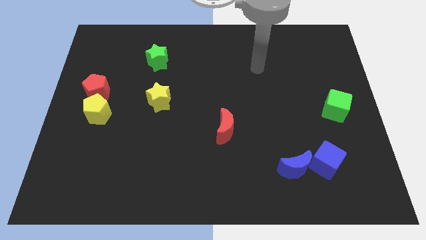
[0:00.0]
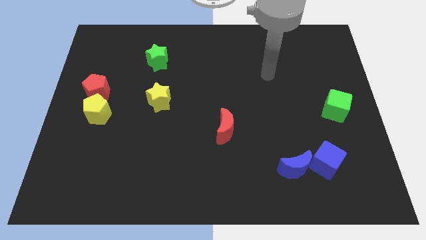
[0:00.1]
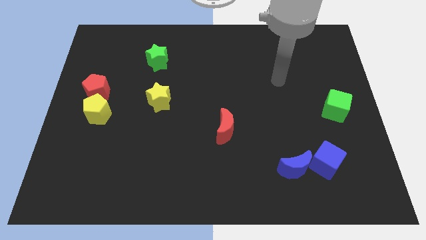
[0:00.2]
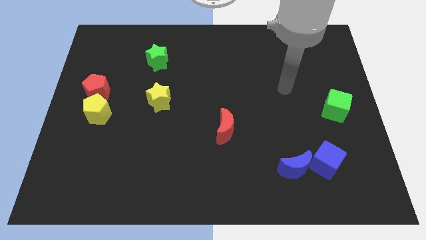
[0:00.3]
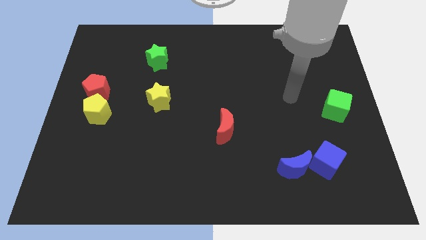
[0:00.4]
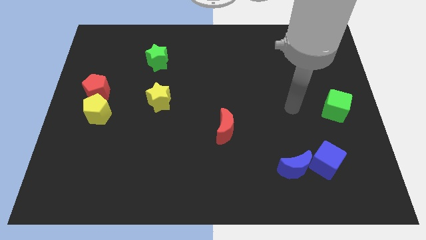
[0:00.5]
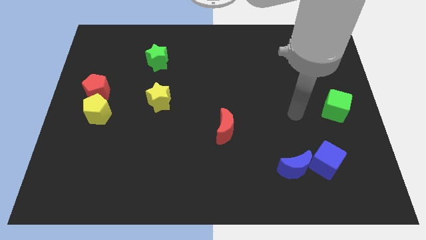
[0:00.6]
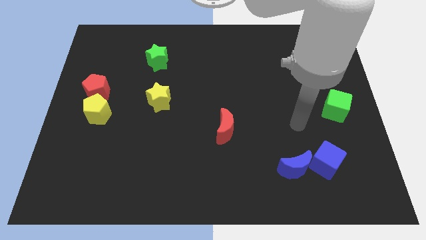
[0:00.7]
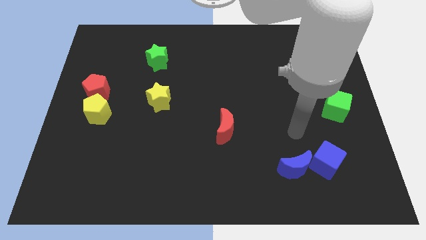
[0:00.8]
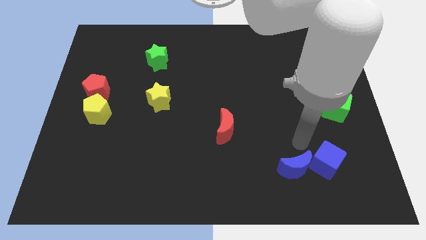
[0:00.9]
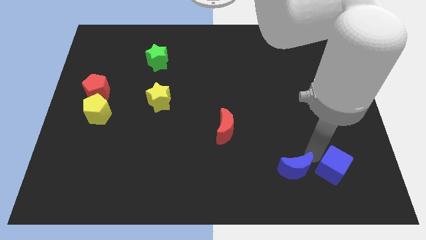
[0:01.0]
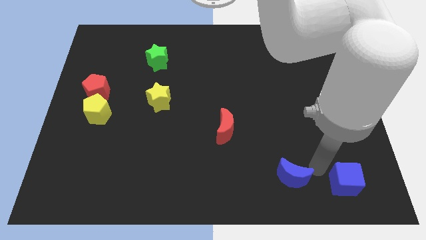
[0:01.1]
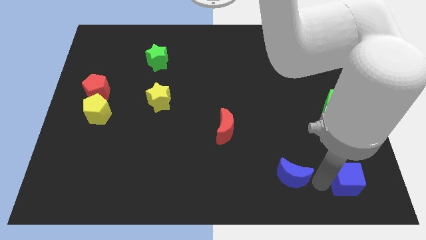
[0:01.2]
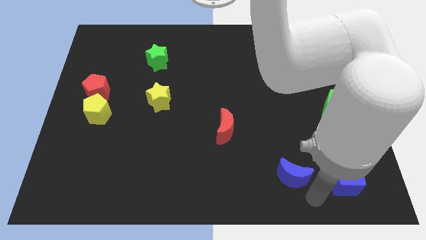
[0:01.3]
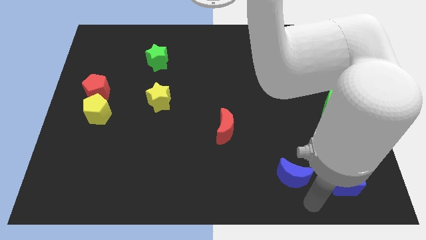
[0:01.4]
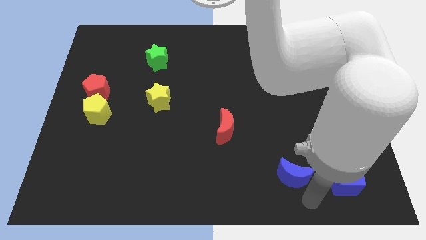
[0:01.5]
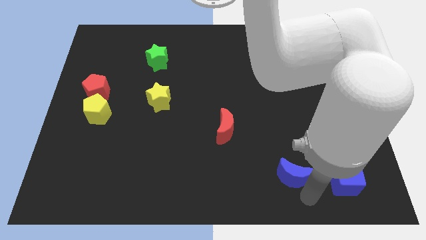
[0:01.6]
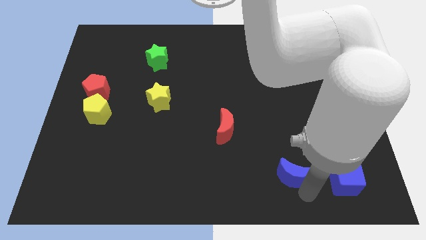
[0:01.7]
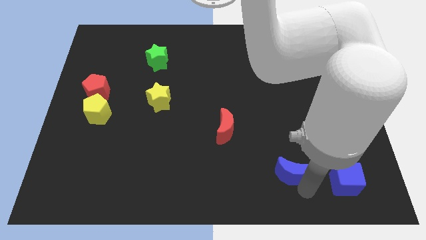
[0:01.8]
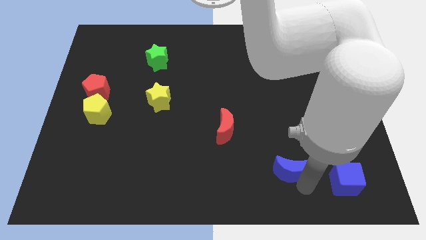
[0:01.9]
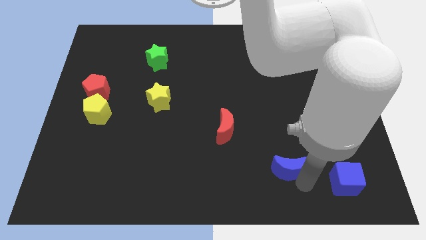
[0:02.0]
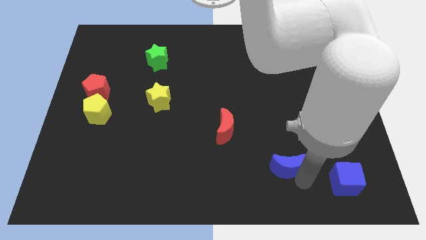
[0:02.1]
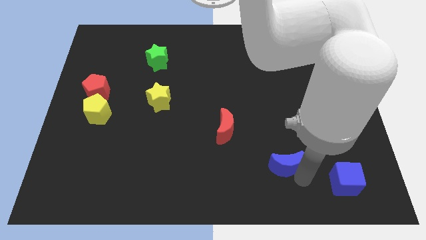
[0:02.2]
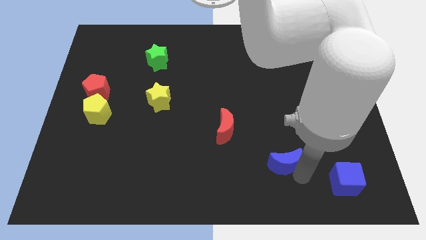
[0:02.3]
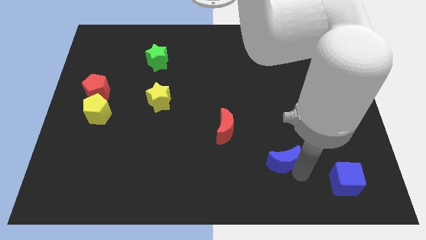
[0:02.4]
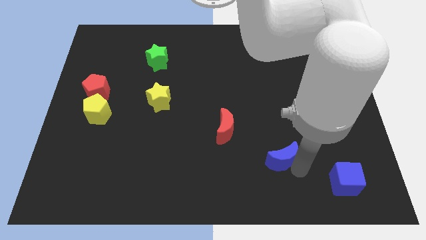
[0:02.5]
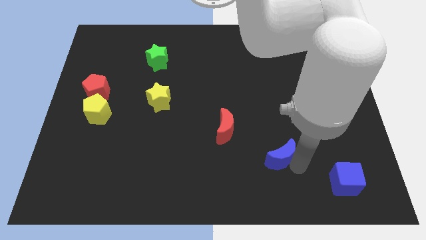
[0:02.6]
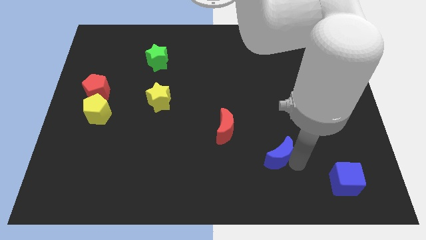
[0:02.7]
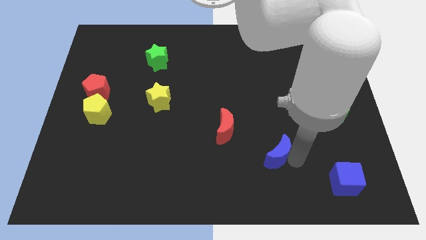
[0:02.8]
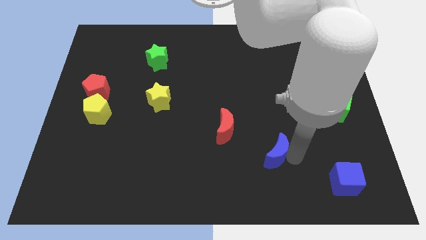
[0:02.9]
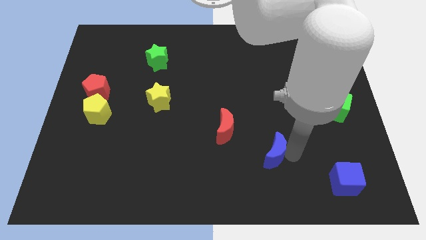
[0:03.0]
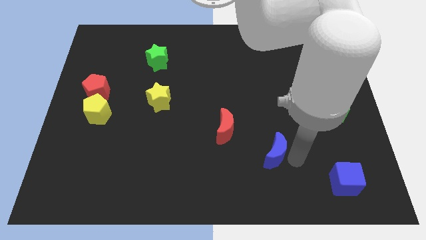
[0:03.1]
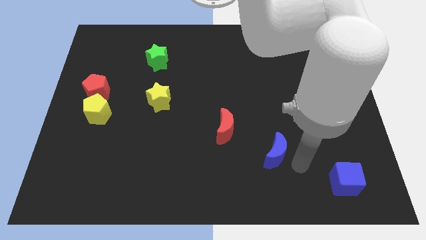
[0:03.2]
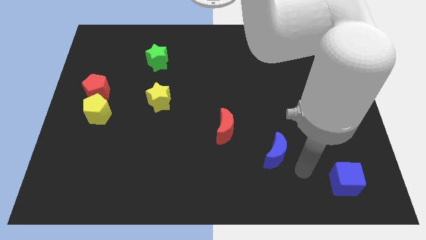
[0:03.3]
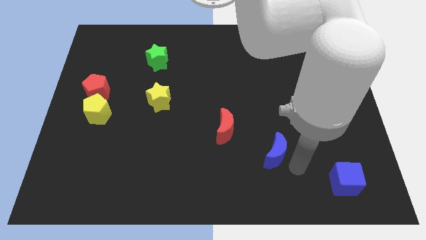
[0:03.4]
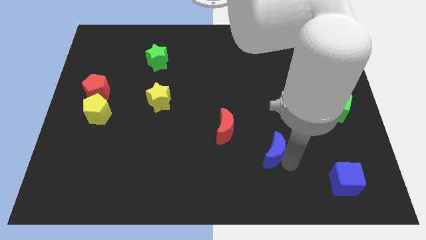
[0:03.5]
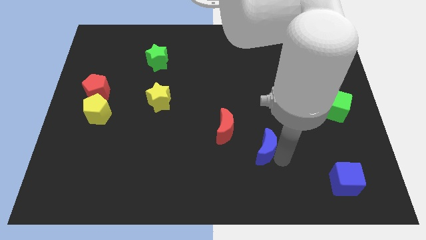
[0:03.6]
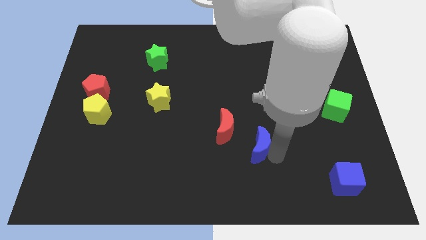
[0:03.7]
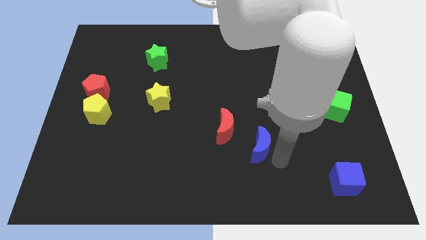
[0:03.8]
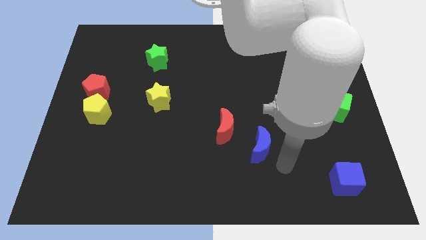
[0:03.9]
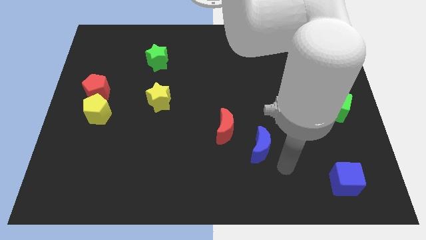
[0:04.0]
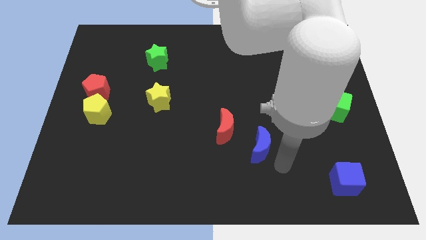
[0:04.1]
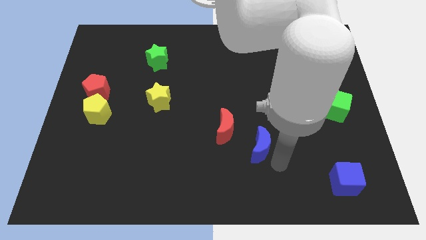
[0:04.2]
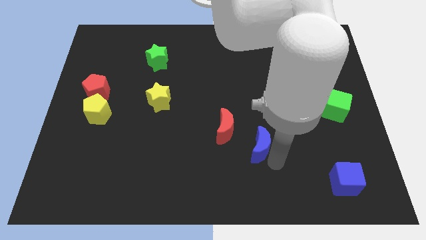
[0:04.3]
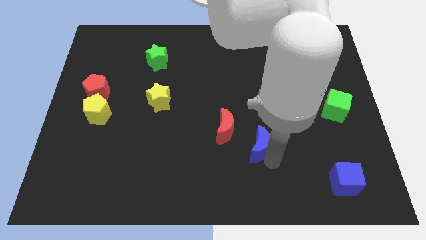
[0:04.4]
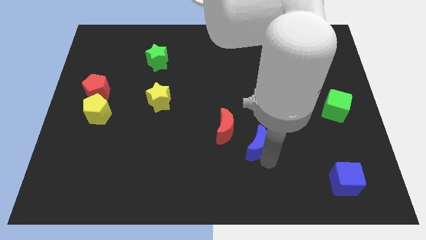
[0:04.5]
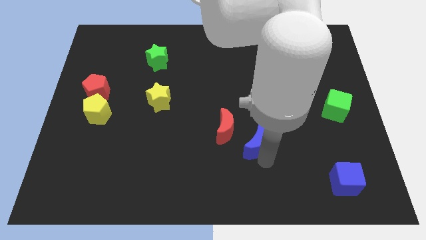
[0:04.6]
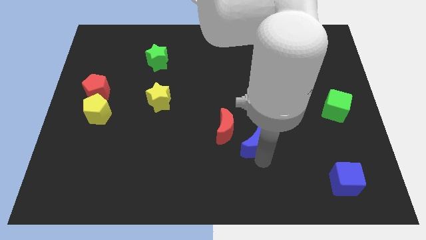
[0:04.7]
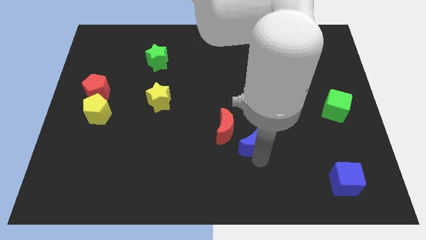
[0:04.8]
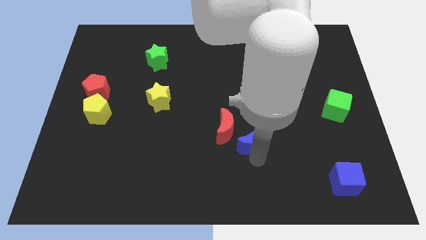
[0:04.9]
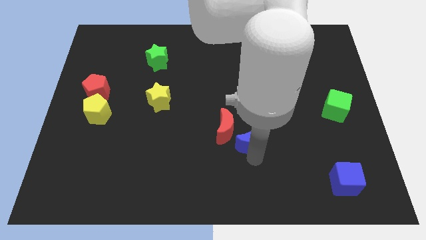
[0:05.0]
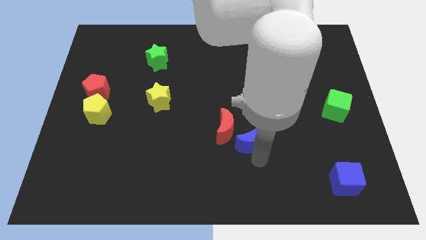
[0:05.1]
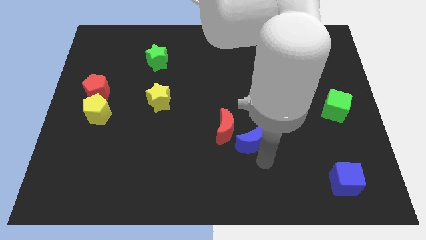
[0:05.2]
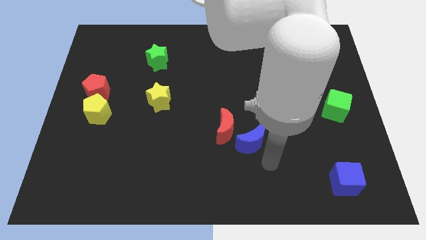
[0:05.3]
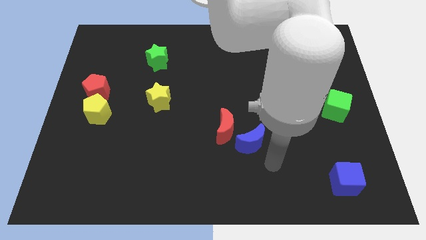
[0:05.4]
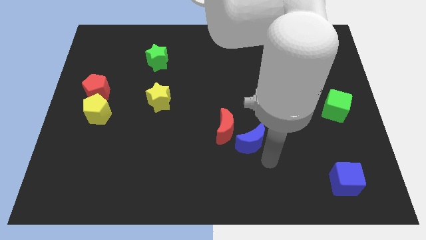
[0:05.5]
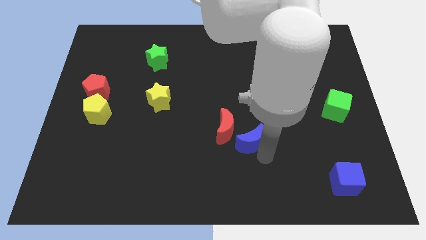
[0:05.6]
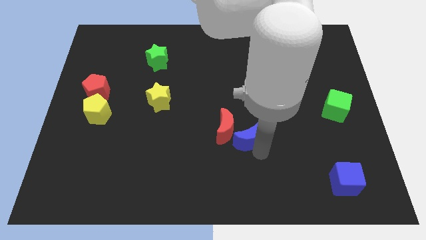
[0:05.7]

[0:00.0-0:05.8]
put the blue moon towards the red moon
